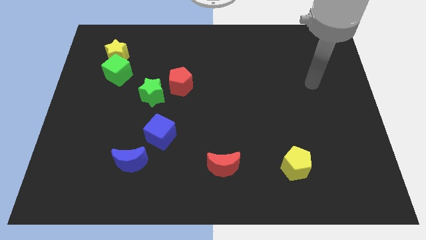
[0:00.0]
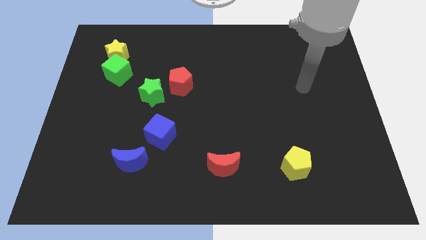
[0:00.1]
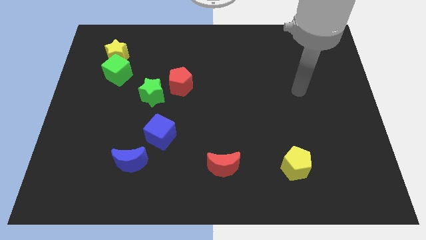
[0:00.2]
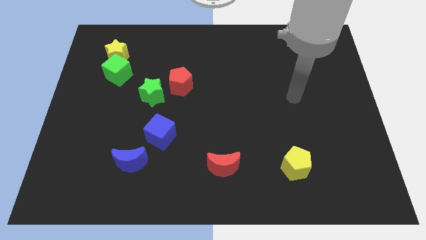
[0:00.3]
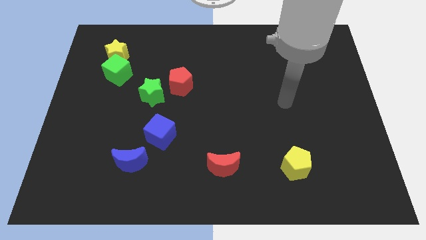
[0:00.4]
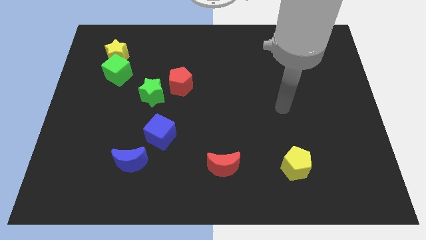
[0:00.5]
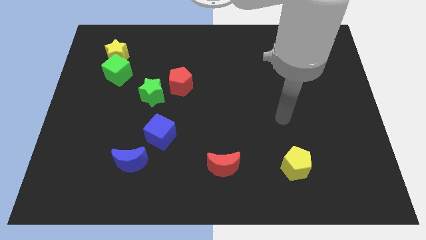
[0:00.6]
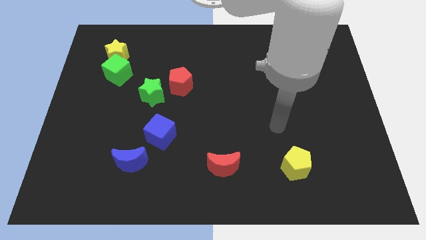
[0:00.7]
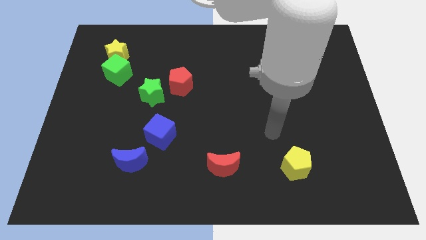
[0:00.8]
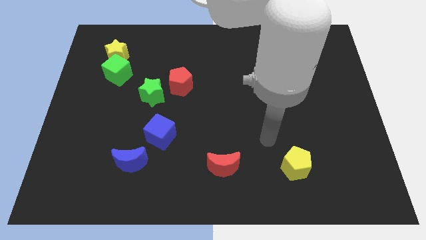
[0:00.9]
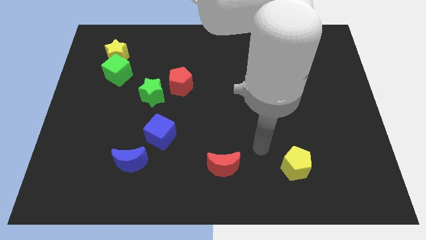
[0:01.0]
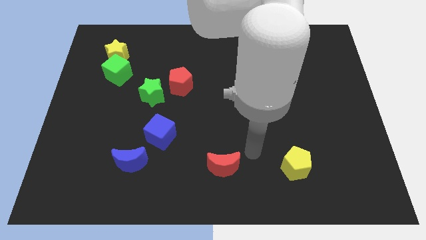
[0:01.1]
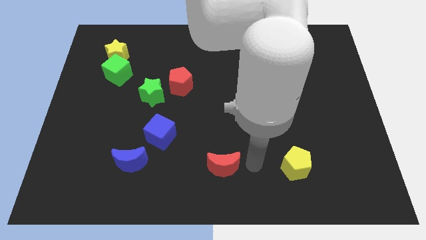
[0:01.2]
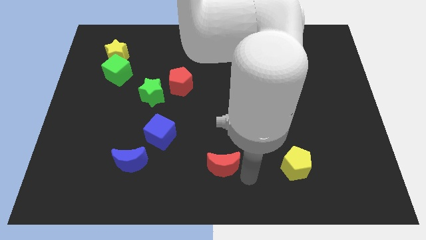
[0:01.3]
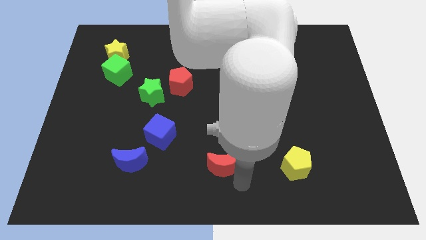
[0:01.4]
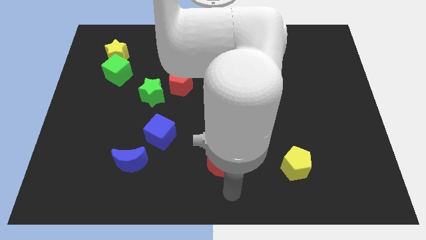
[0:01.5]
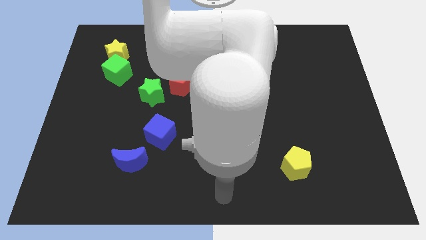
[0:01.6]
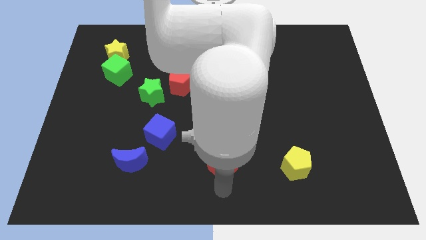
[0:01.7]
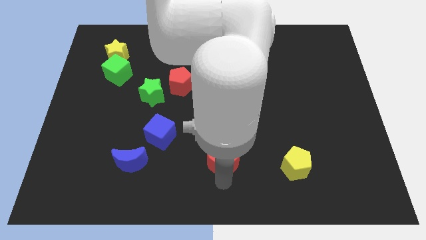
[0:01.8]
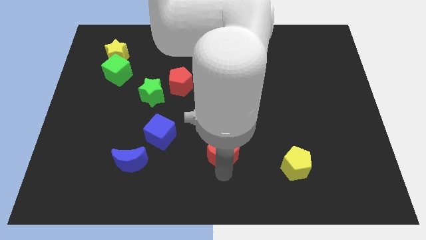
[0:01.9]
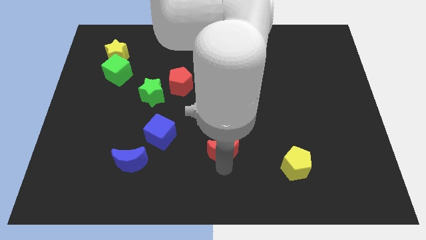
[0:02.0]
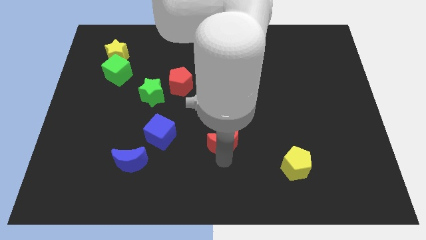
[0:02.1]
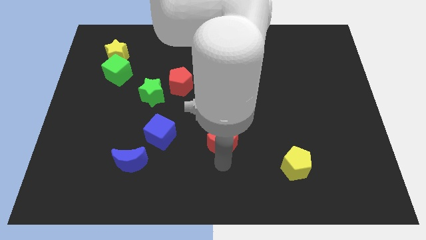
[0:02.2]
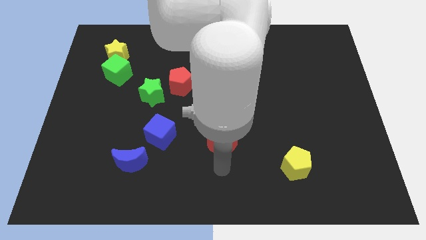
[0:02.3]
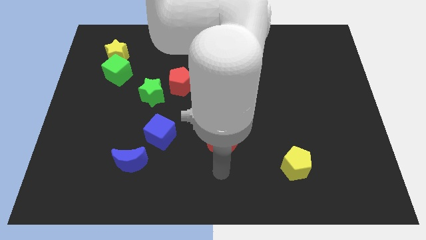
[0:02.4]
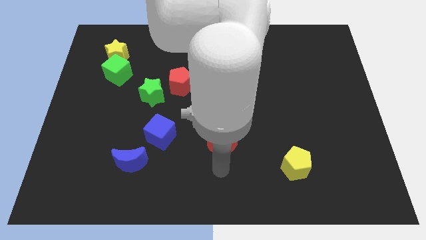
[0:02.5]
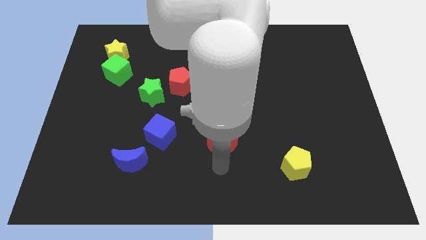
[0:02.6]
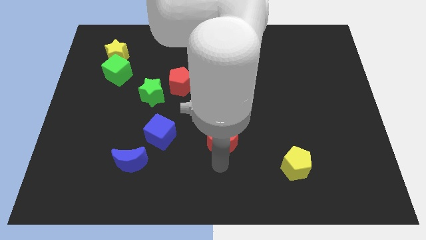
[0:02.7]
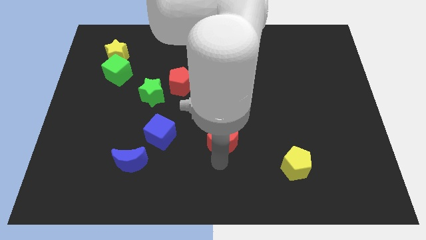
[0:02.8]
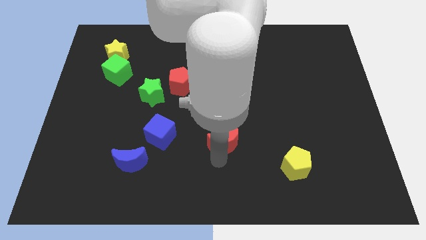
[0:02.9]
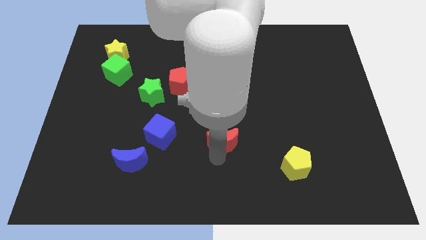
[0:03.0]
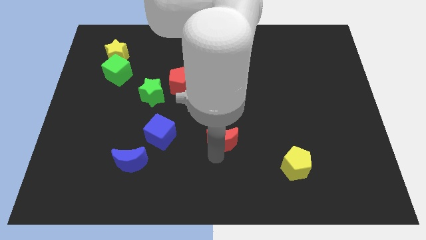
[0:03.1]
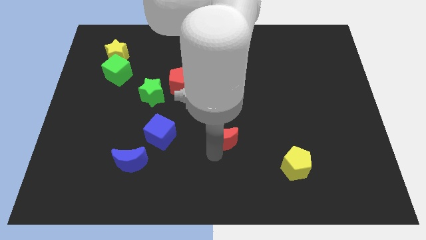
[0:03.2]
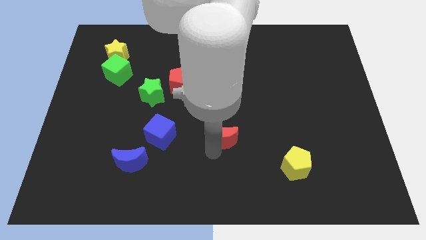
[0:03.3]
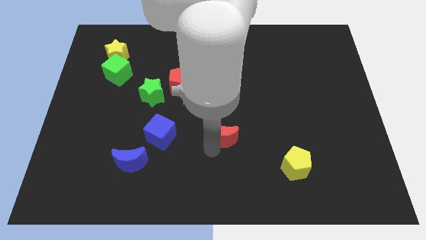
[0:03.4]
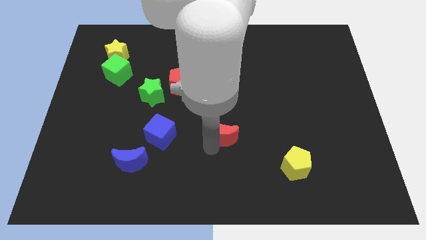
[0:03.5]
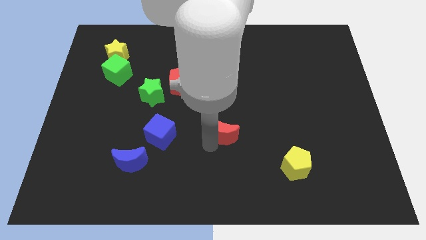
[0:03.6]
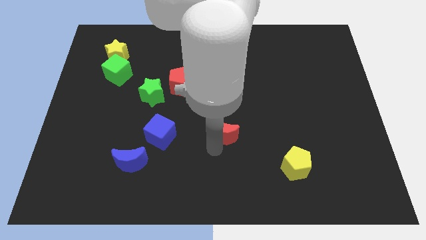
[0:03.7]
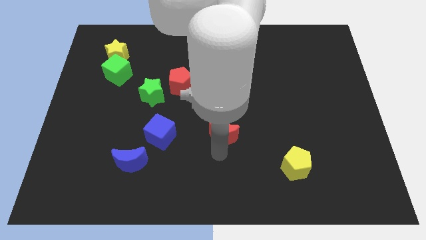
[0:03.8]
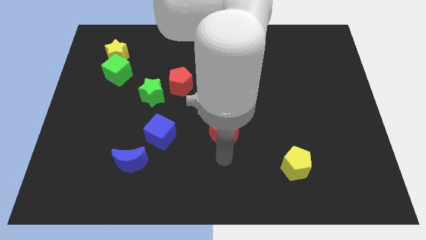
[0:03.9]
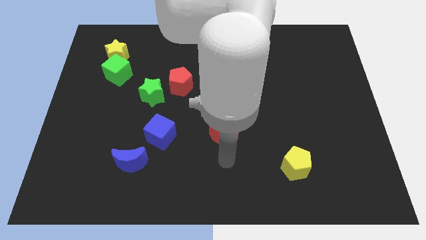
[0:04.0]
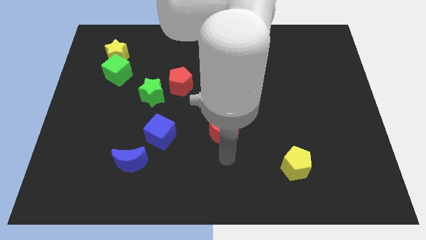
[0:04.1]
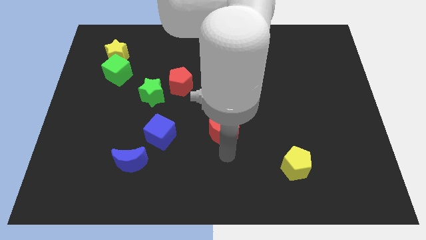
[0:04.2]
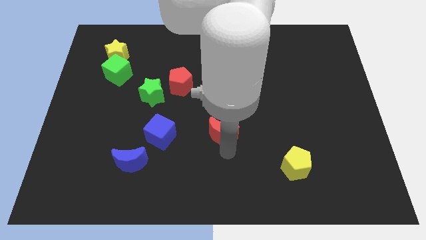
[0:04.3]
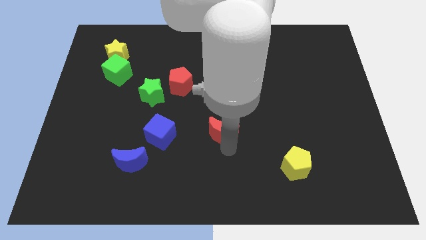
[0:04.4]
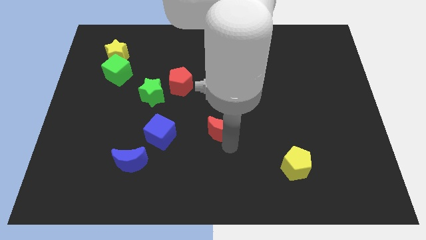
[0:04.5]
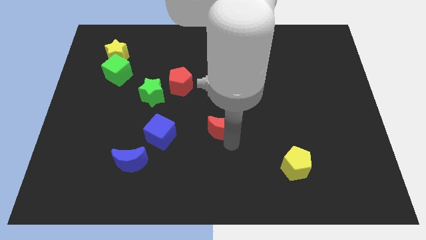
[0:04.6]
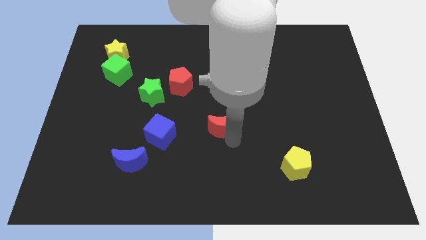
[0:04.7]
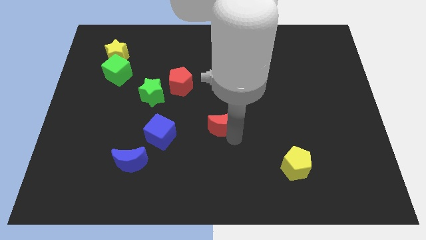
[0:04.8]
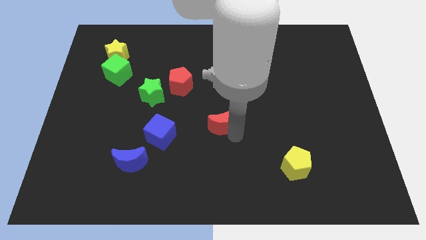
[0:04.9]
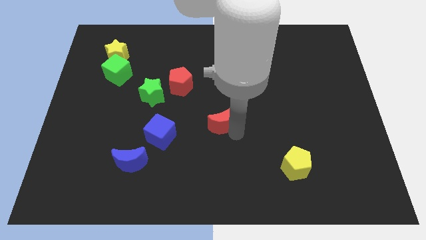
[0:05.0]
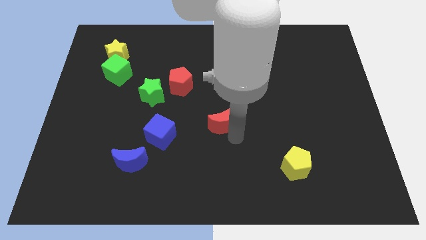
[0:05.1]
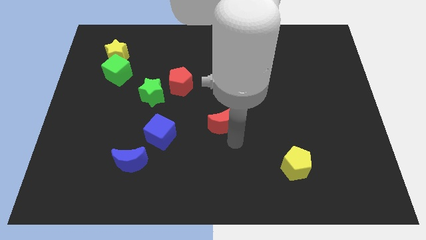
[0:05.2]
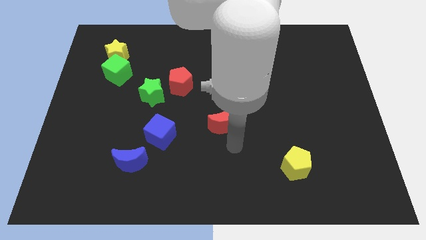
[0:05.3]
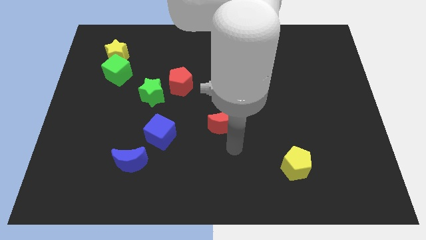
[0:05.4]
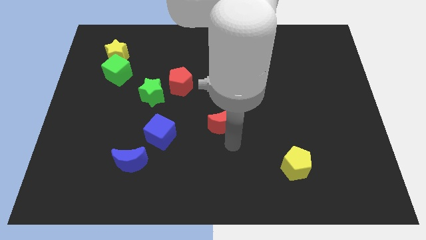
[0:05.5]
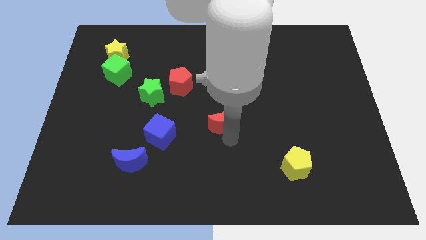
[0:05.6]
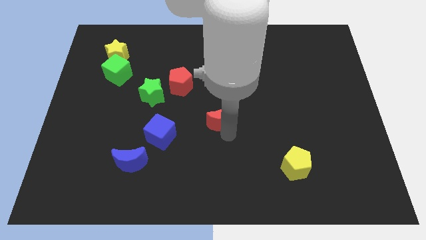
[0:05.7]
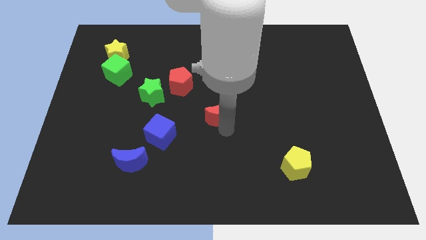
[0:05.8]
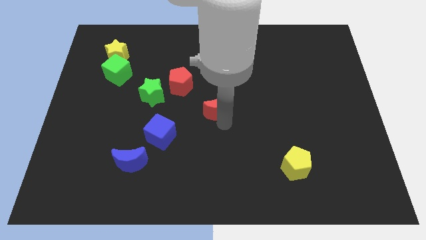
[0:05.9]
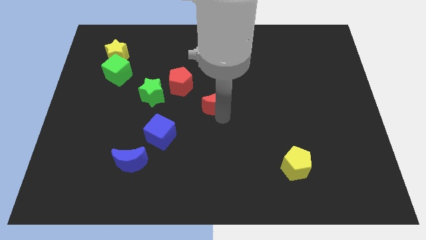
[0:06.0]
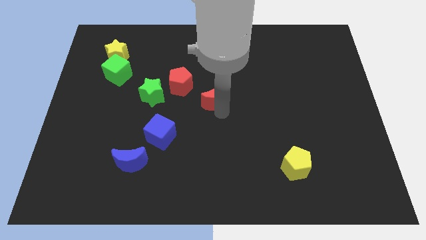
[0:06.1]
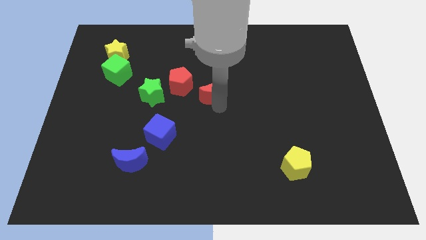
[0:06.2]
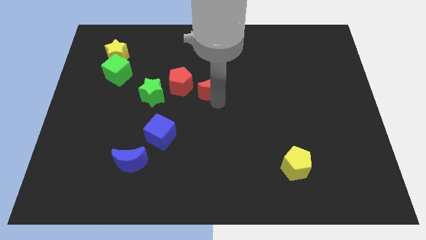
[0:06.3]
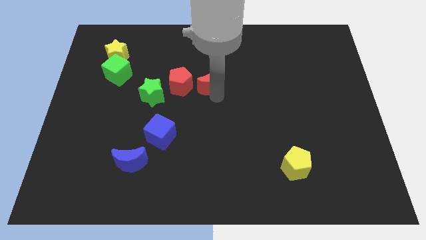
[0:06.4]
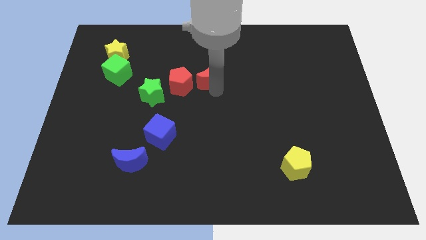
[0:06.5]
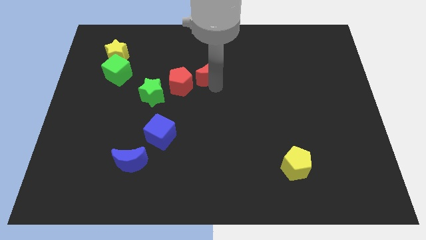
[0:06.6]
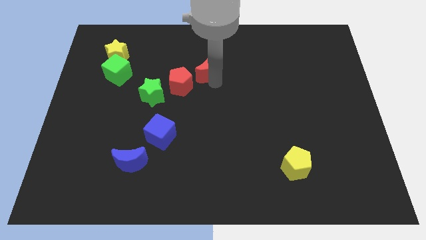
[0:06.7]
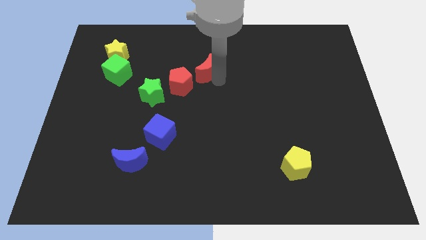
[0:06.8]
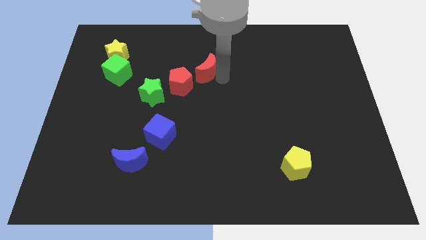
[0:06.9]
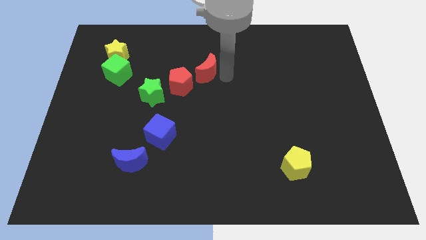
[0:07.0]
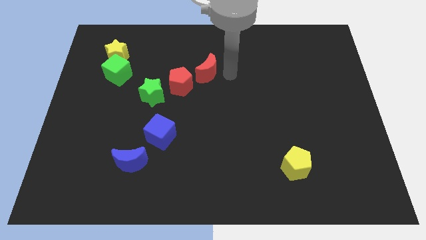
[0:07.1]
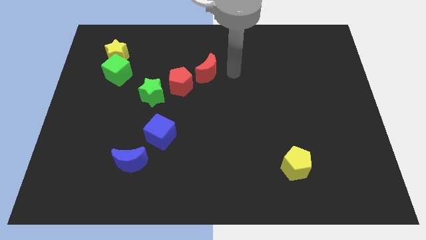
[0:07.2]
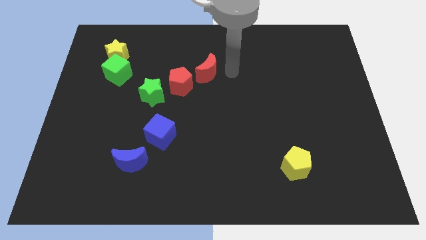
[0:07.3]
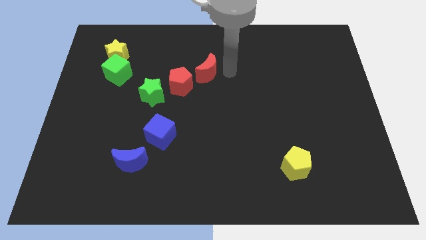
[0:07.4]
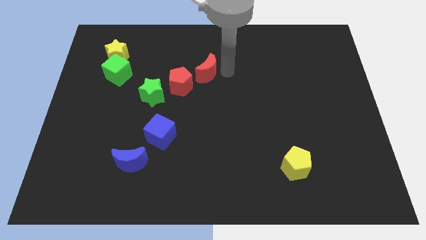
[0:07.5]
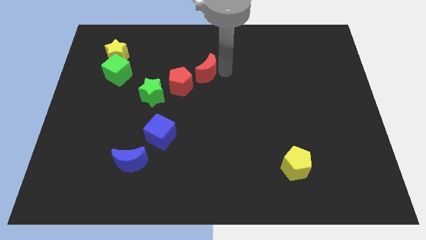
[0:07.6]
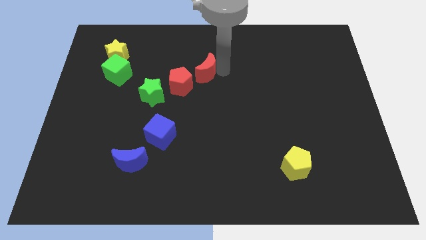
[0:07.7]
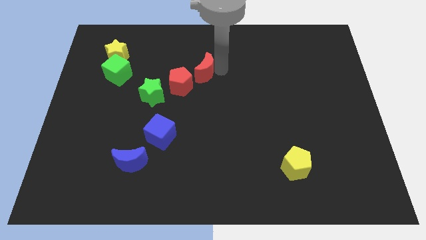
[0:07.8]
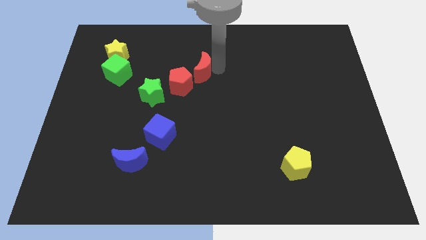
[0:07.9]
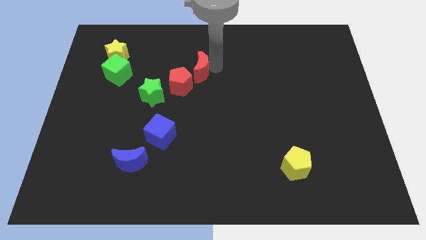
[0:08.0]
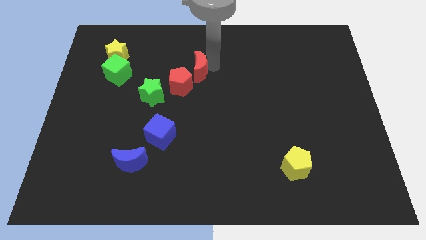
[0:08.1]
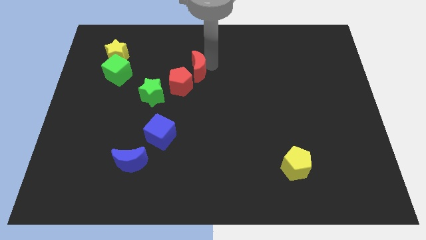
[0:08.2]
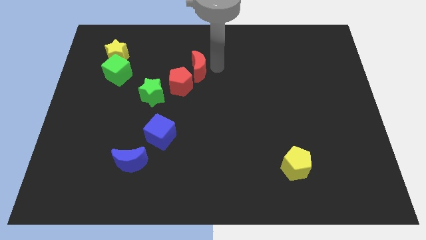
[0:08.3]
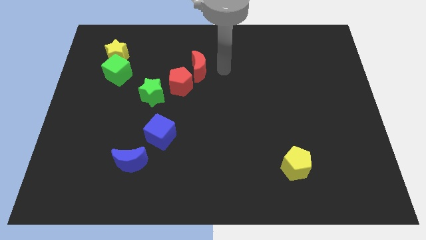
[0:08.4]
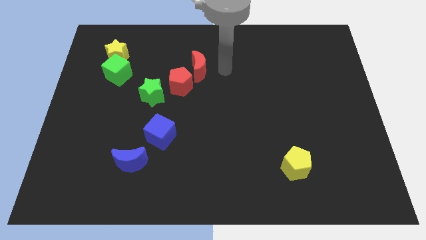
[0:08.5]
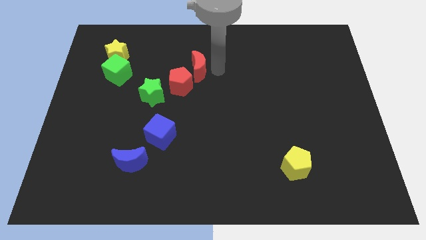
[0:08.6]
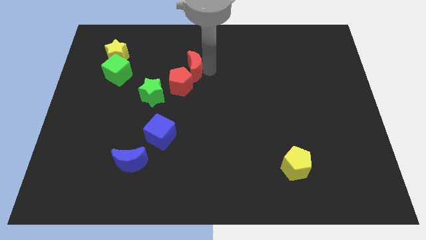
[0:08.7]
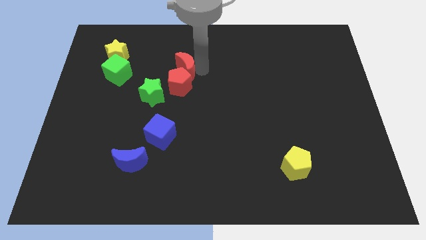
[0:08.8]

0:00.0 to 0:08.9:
slide the red moon to the top left side of the red pentagon
